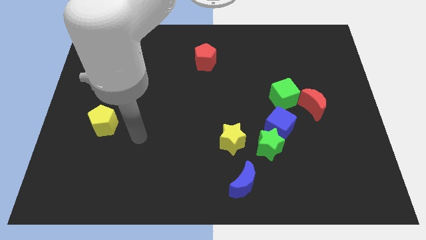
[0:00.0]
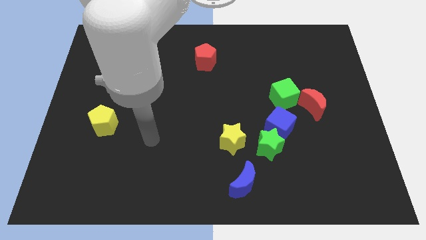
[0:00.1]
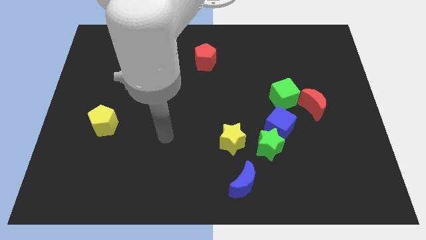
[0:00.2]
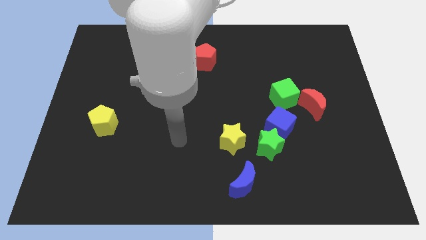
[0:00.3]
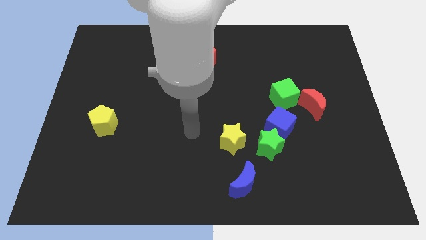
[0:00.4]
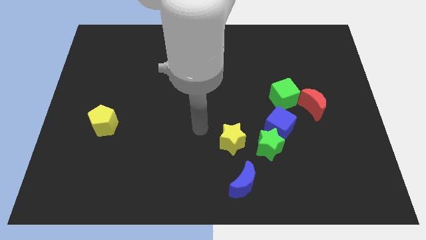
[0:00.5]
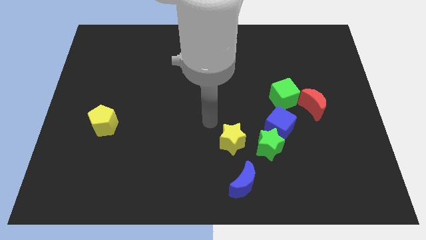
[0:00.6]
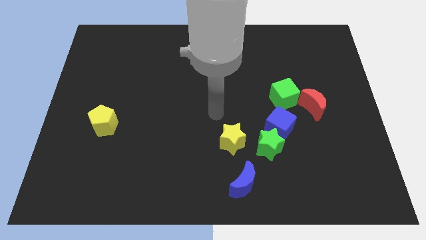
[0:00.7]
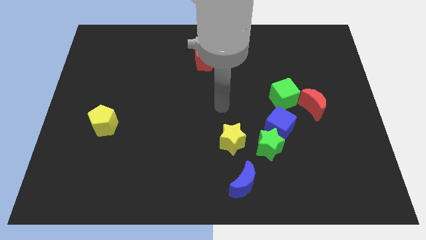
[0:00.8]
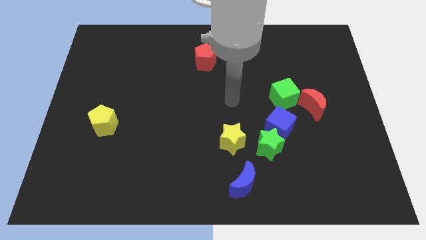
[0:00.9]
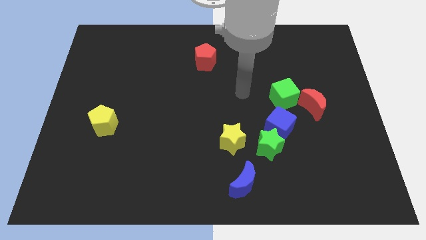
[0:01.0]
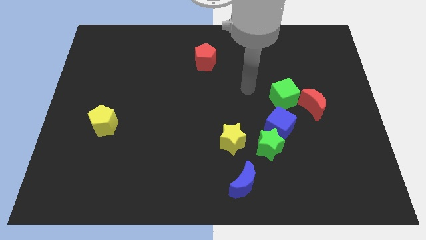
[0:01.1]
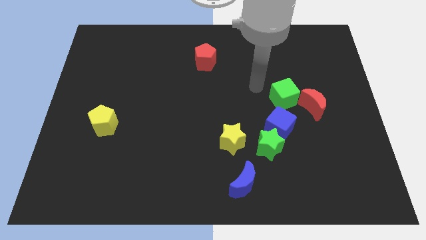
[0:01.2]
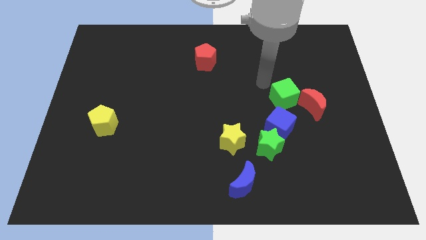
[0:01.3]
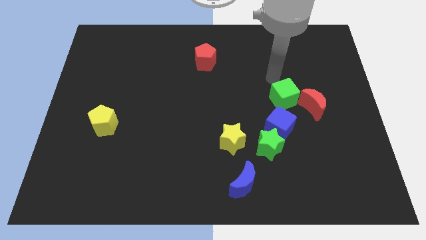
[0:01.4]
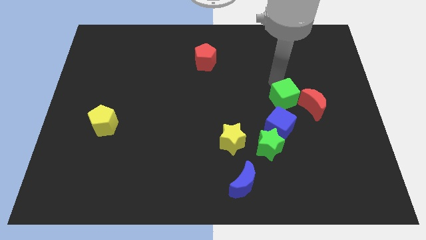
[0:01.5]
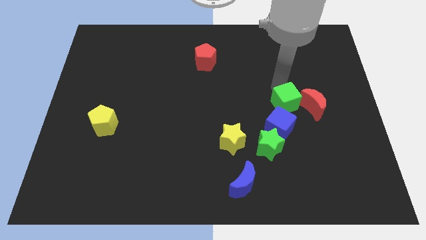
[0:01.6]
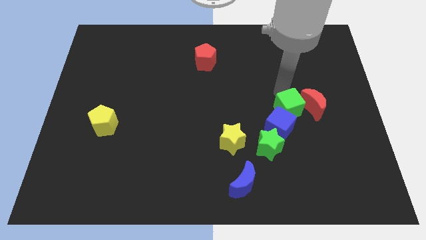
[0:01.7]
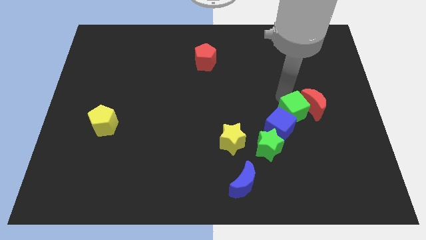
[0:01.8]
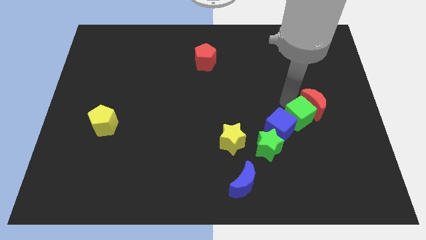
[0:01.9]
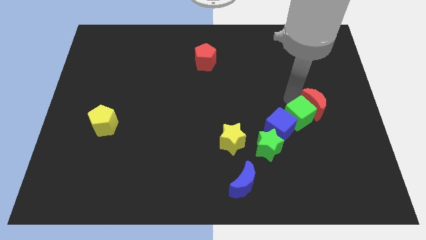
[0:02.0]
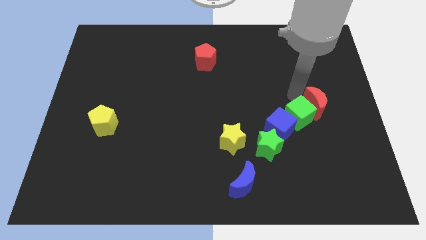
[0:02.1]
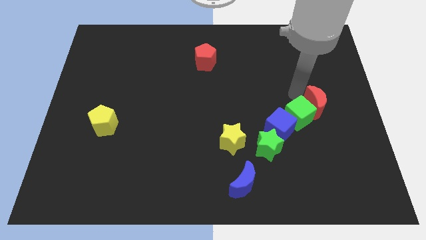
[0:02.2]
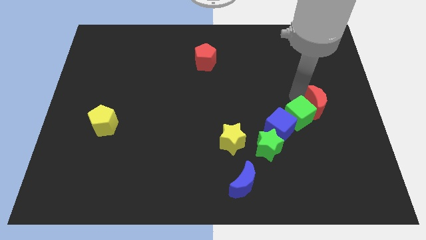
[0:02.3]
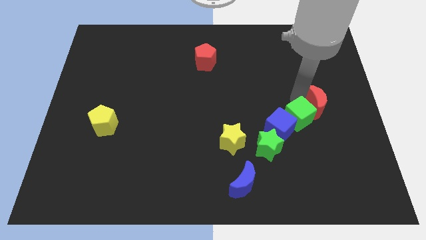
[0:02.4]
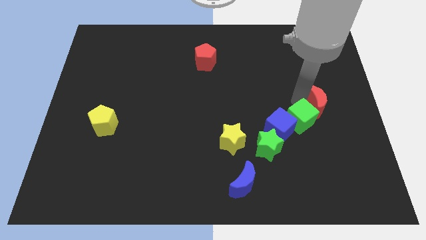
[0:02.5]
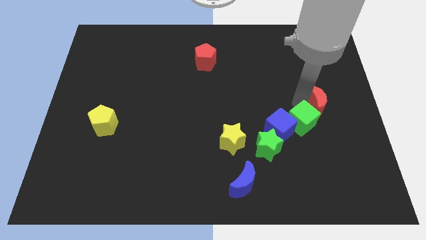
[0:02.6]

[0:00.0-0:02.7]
slide the green cube slightly downwards

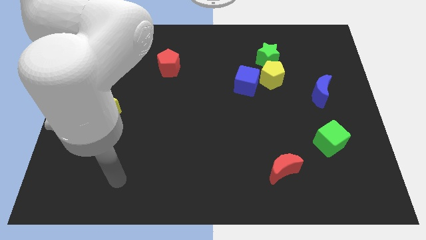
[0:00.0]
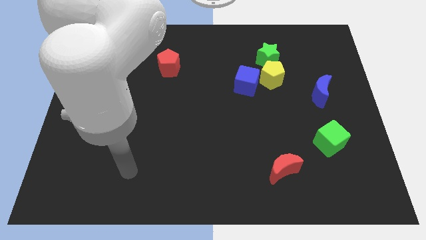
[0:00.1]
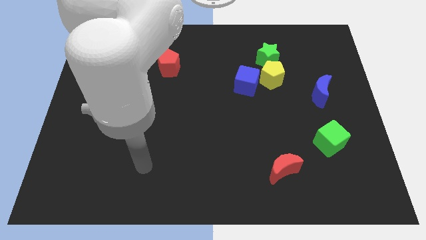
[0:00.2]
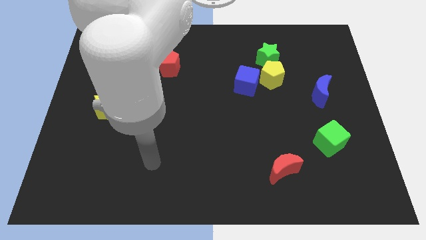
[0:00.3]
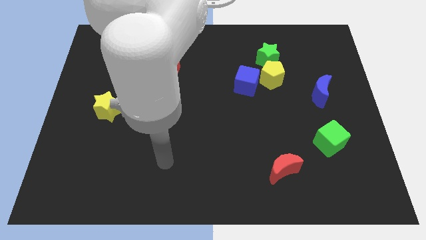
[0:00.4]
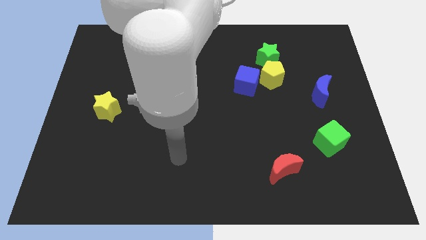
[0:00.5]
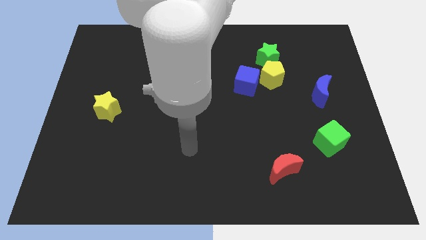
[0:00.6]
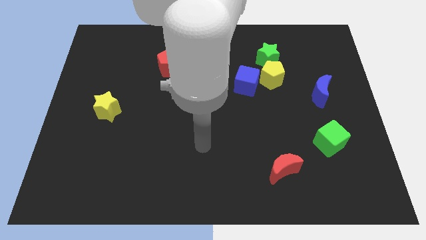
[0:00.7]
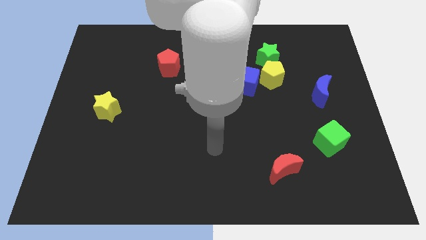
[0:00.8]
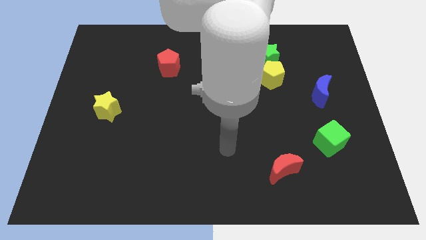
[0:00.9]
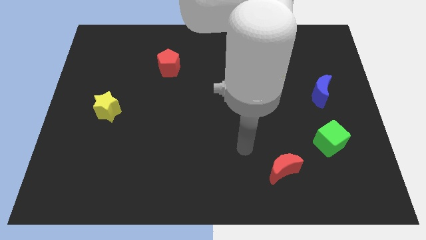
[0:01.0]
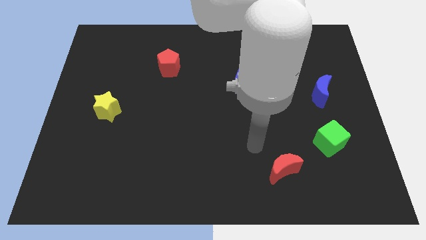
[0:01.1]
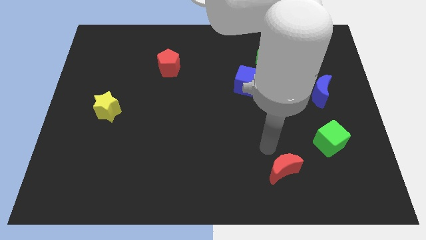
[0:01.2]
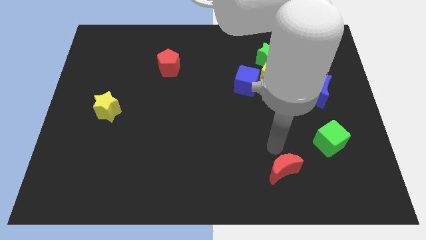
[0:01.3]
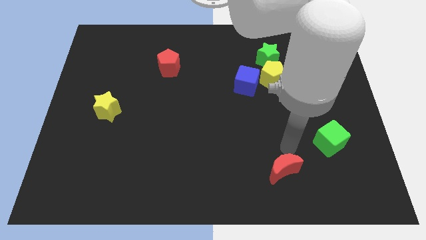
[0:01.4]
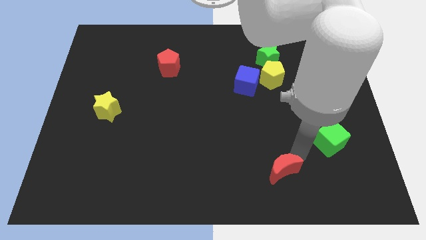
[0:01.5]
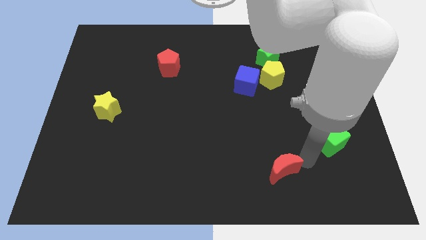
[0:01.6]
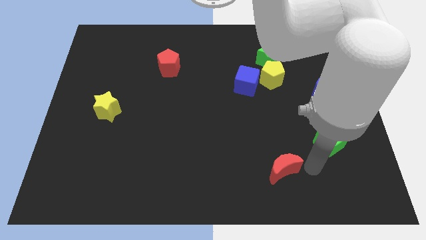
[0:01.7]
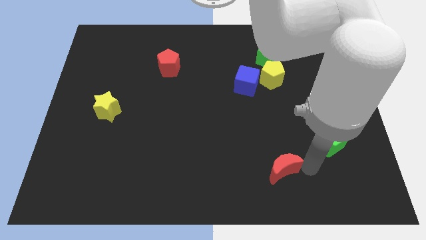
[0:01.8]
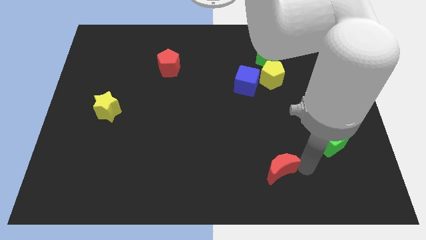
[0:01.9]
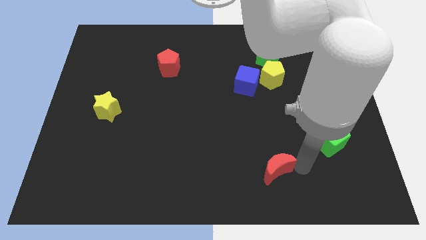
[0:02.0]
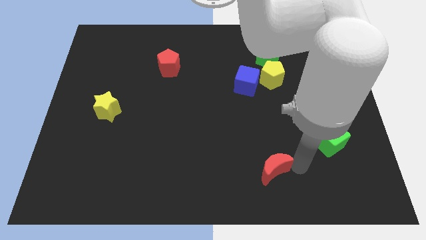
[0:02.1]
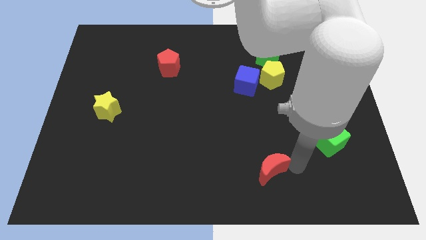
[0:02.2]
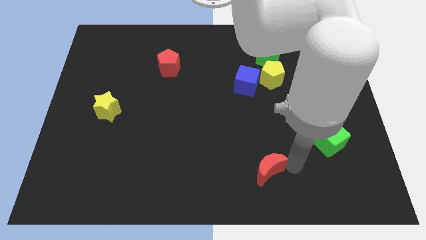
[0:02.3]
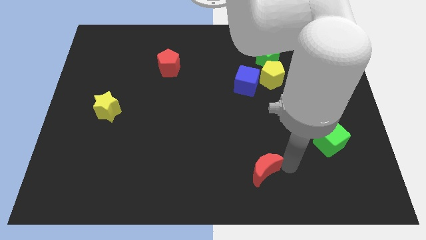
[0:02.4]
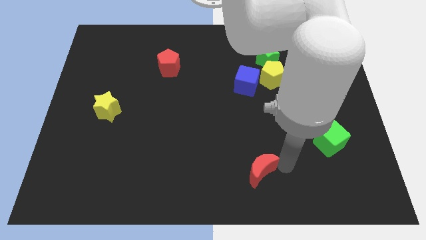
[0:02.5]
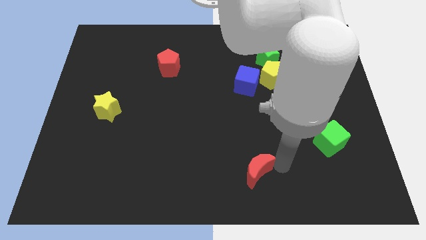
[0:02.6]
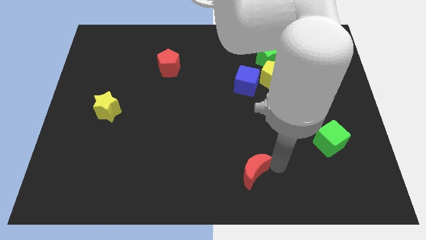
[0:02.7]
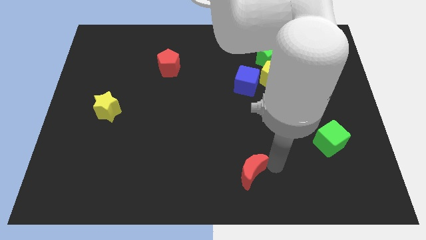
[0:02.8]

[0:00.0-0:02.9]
push the red moon a bit to the left

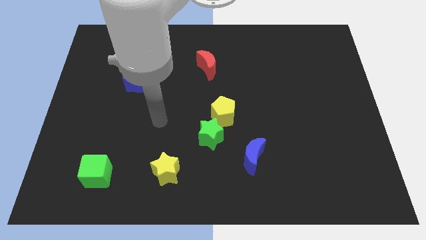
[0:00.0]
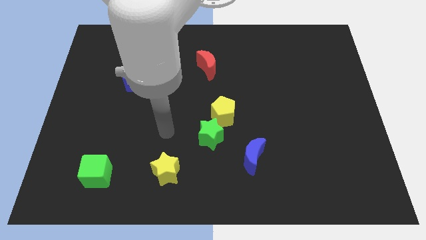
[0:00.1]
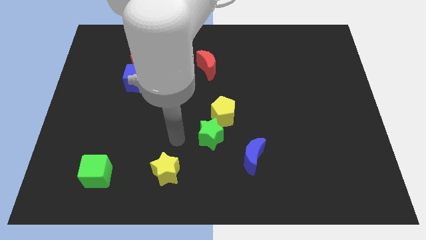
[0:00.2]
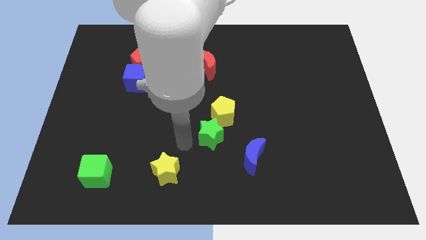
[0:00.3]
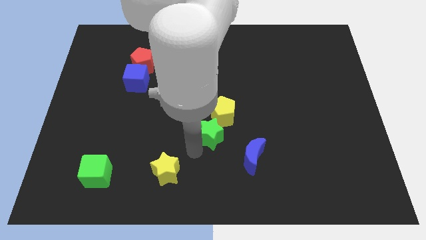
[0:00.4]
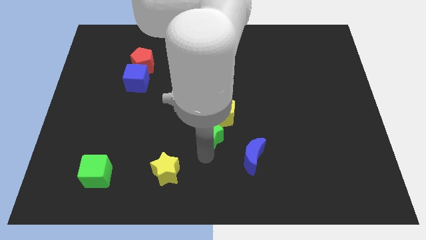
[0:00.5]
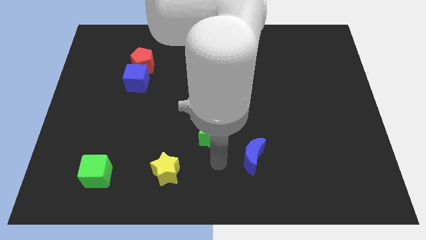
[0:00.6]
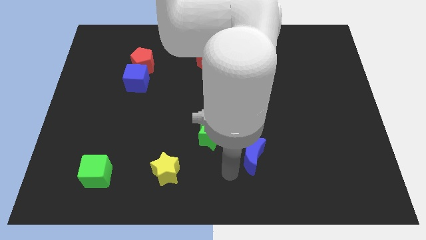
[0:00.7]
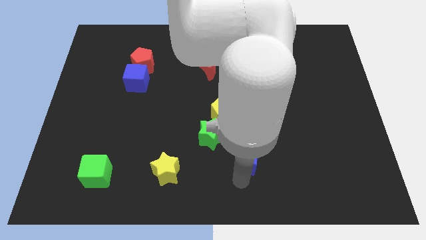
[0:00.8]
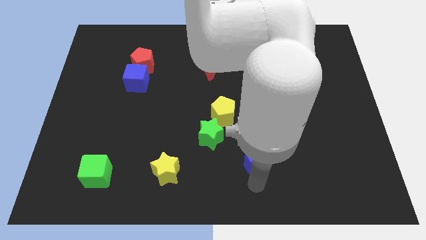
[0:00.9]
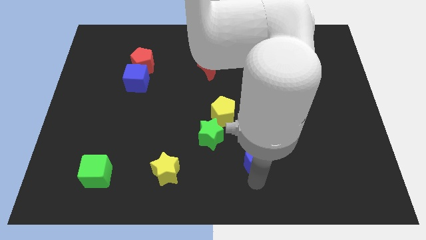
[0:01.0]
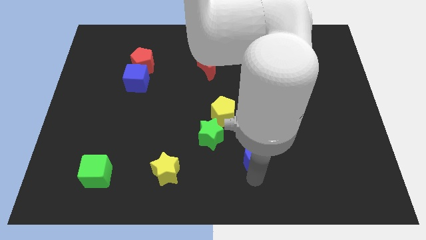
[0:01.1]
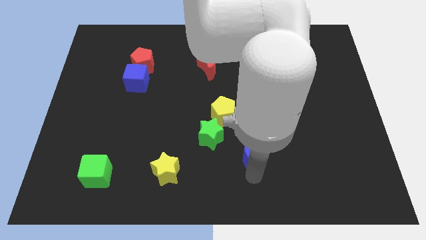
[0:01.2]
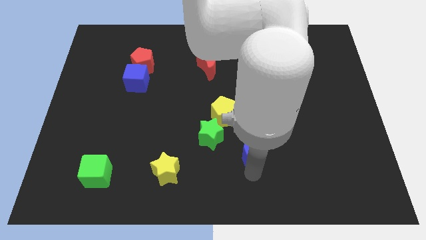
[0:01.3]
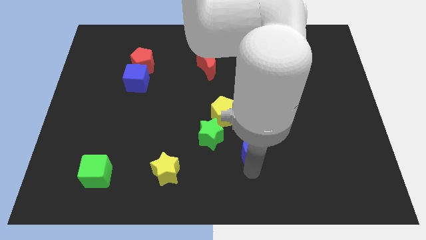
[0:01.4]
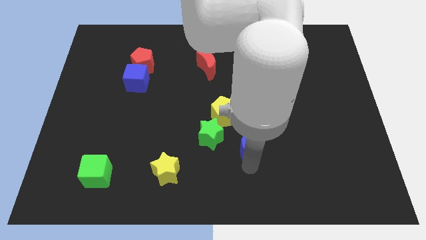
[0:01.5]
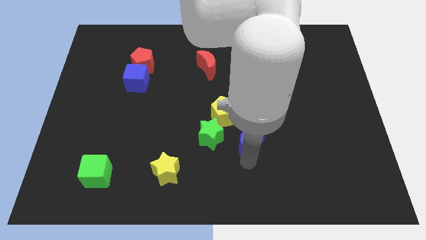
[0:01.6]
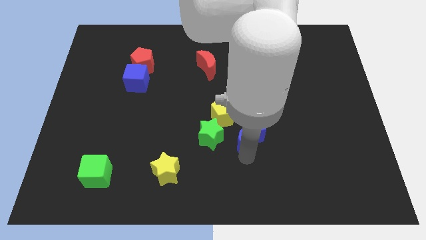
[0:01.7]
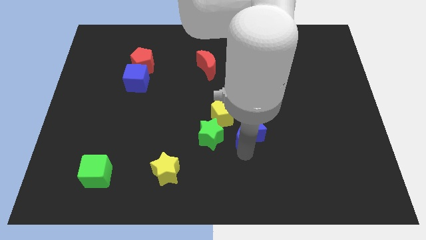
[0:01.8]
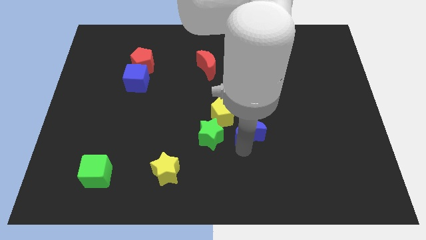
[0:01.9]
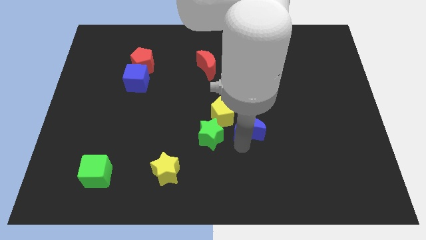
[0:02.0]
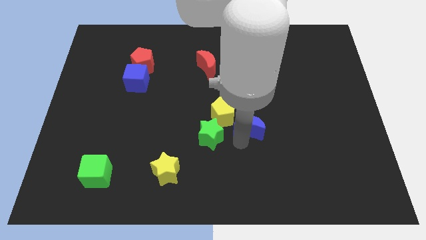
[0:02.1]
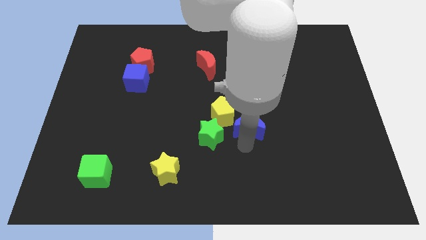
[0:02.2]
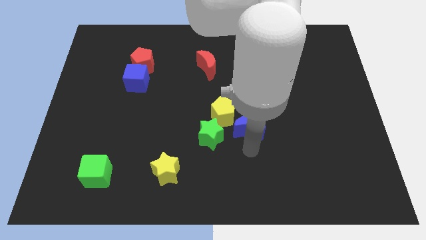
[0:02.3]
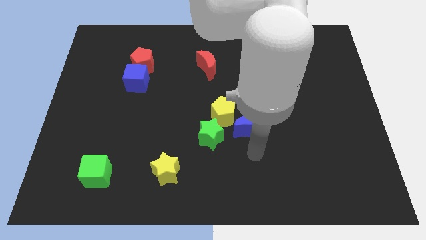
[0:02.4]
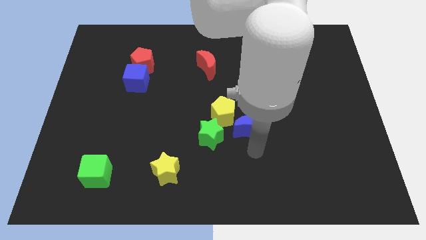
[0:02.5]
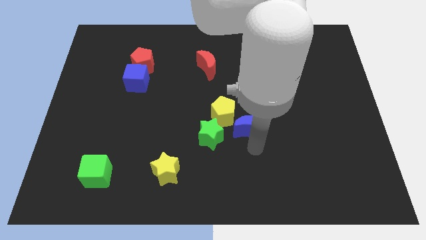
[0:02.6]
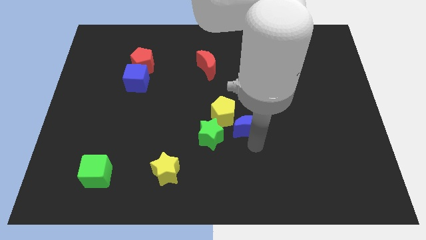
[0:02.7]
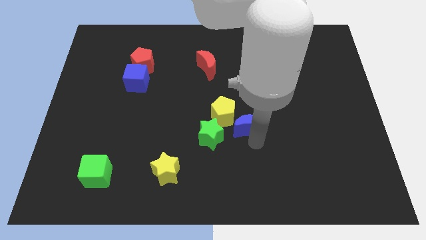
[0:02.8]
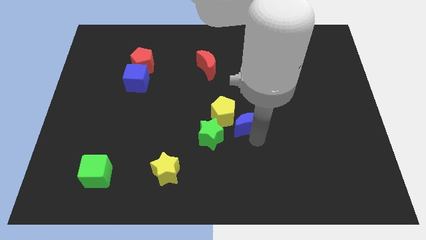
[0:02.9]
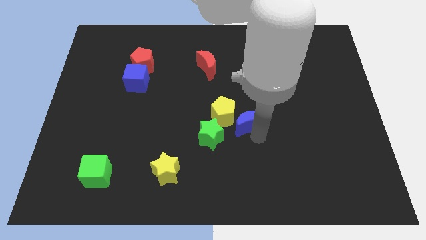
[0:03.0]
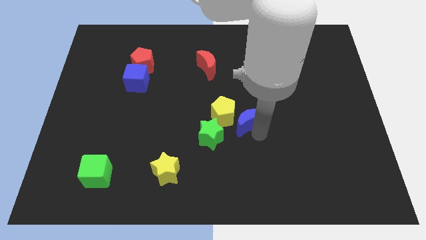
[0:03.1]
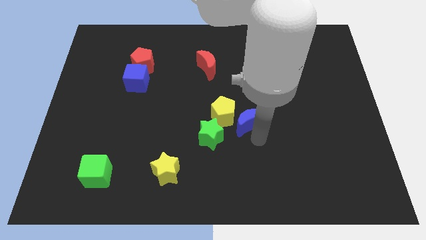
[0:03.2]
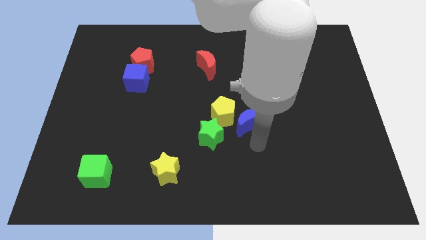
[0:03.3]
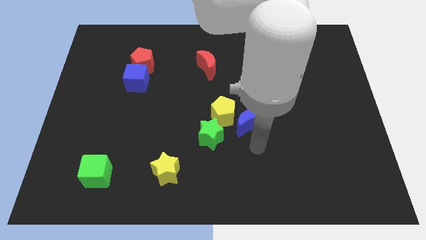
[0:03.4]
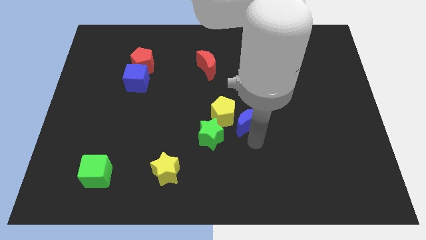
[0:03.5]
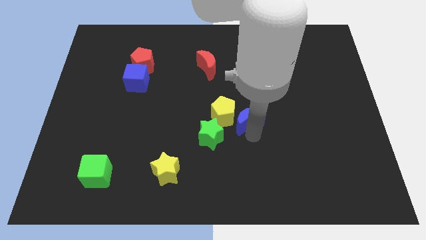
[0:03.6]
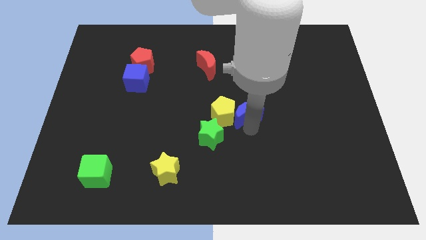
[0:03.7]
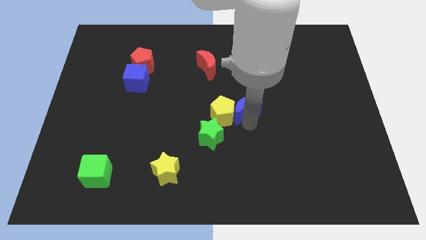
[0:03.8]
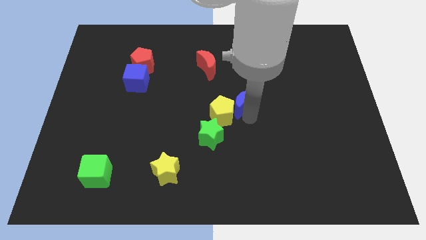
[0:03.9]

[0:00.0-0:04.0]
slightly move the blue moon upwards and then left
